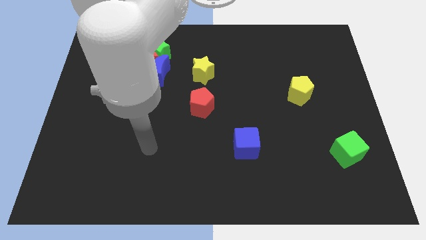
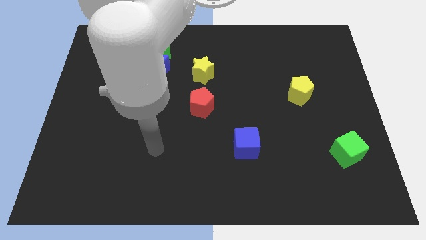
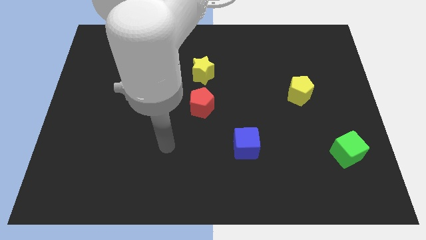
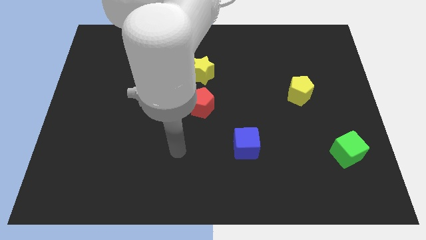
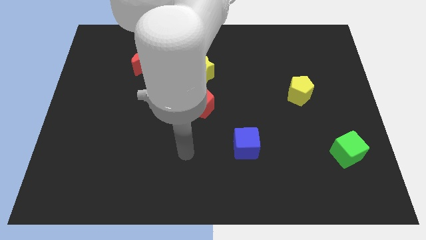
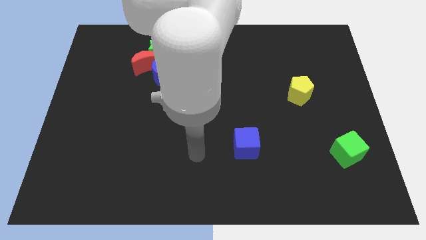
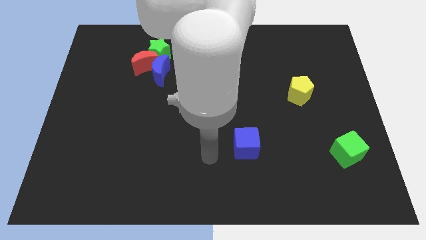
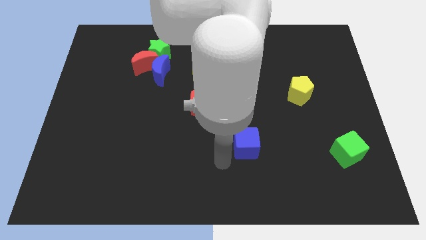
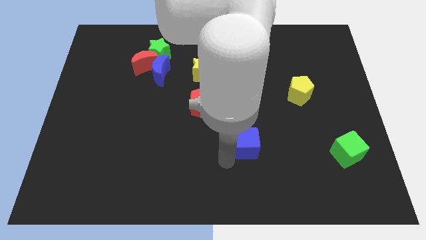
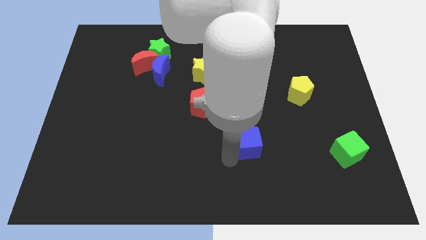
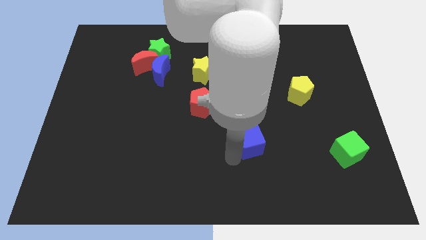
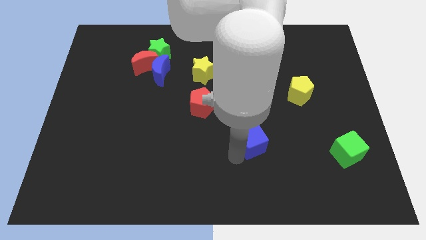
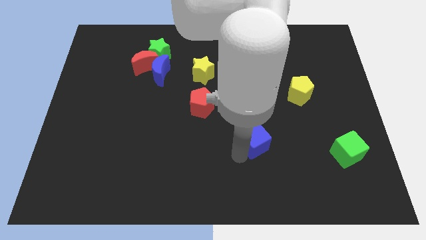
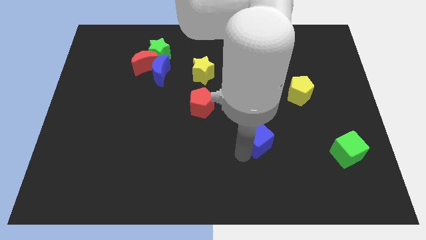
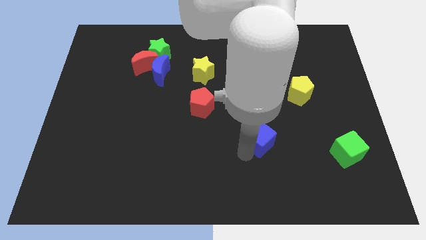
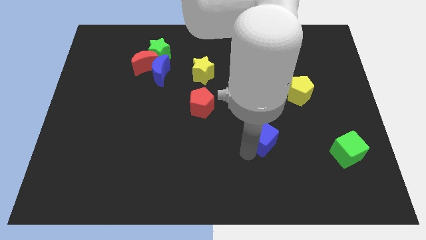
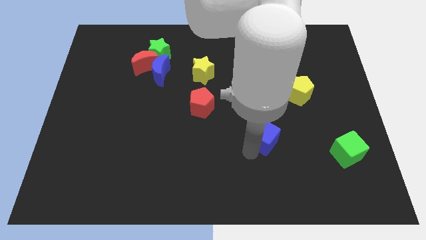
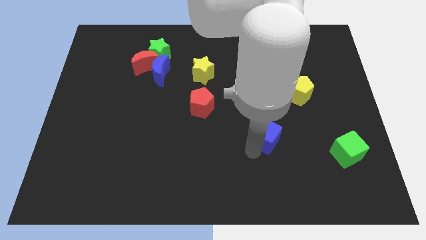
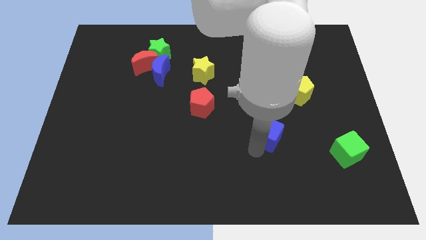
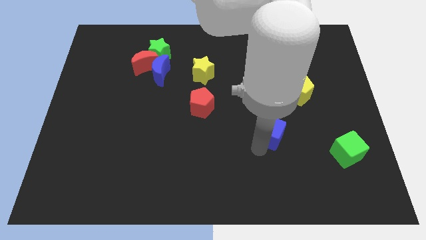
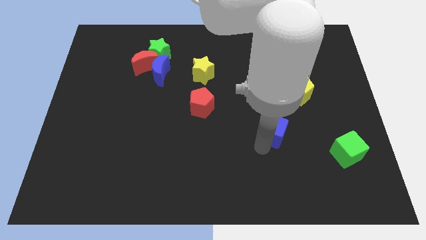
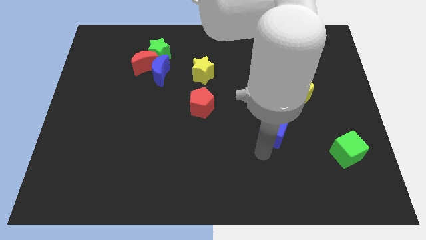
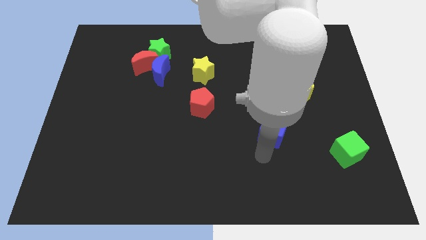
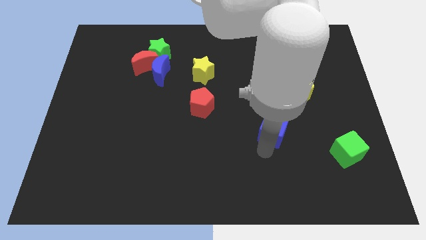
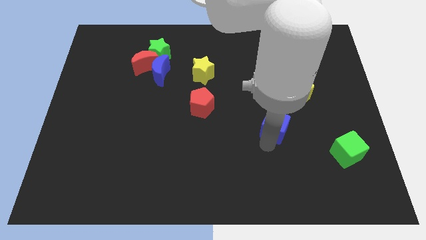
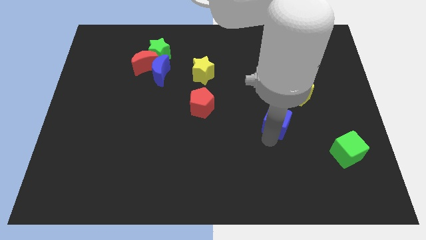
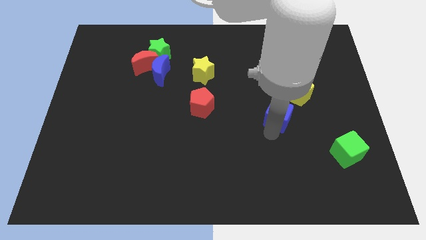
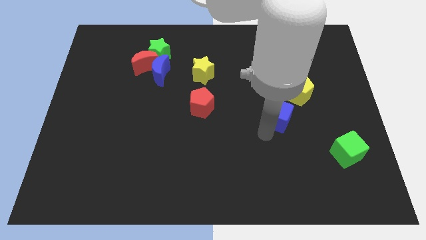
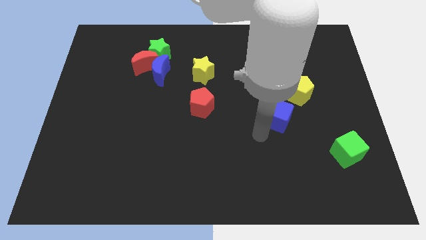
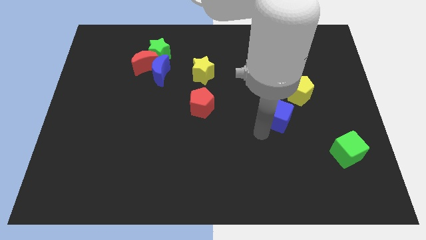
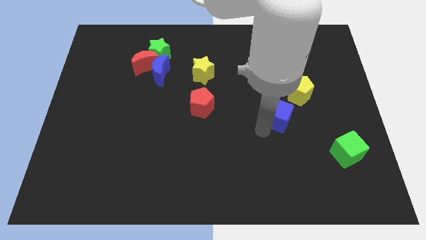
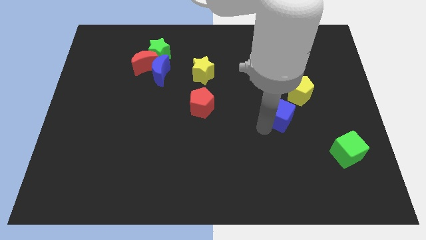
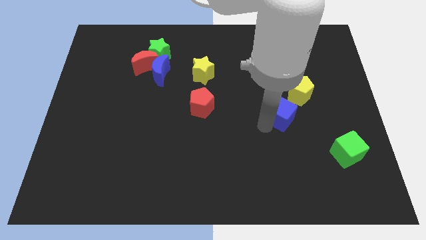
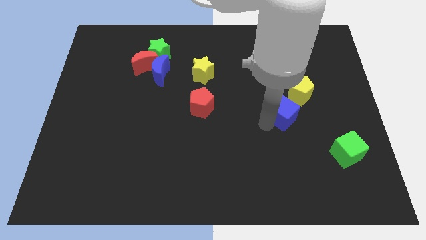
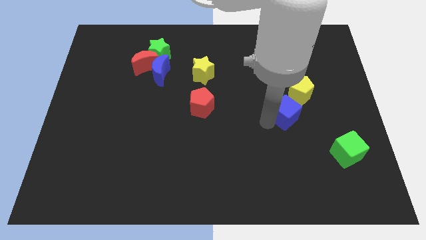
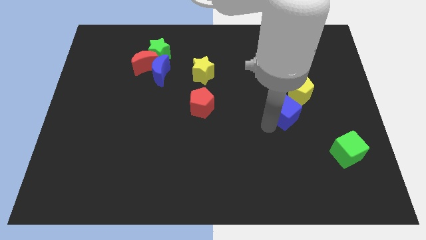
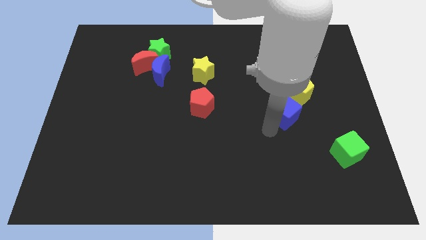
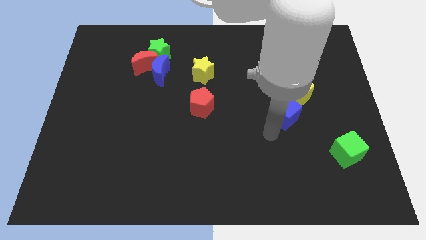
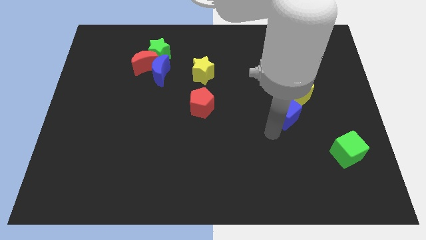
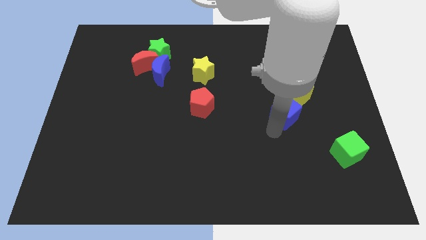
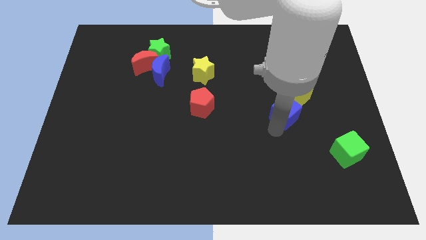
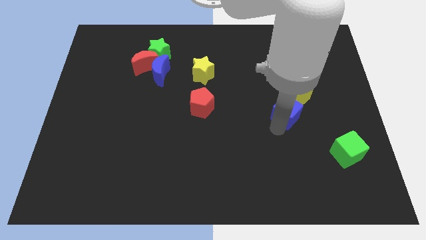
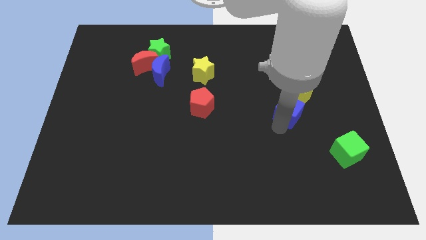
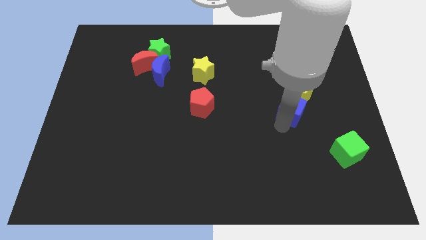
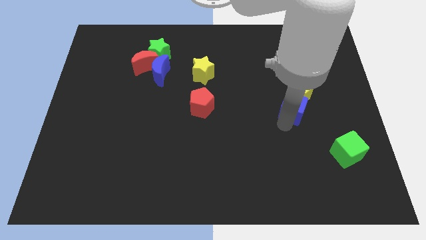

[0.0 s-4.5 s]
push the blue cube close to the yellow pentagon

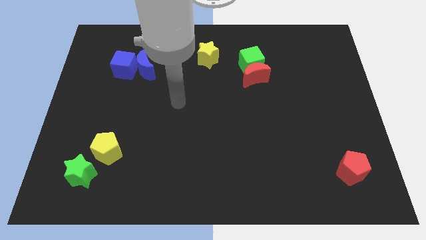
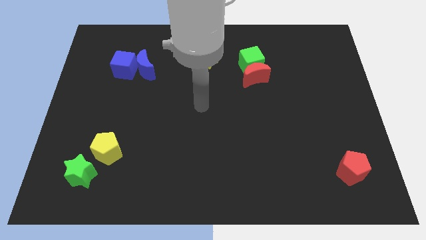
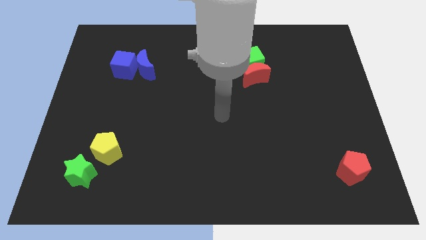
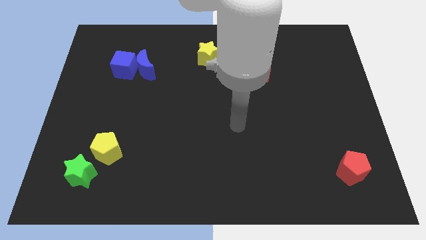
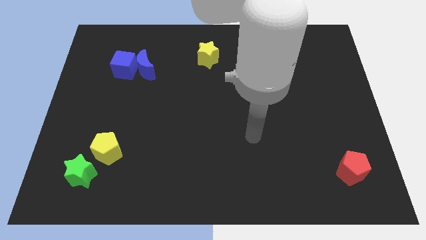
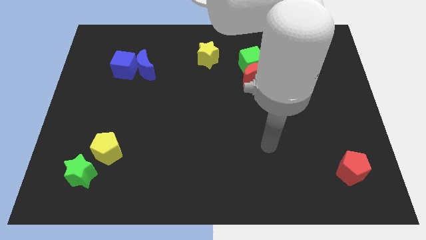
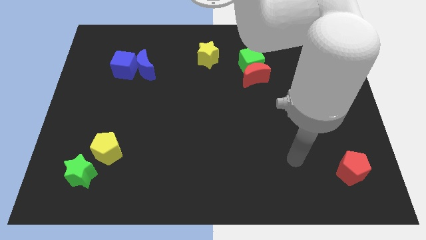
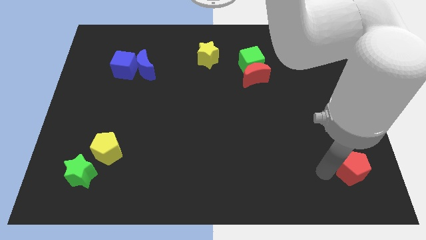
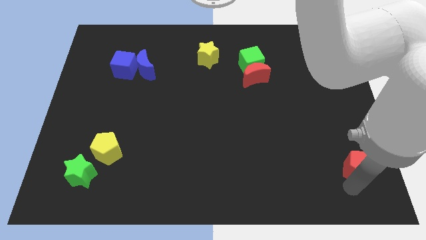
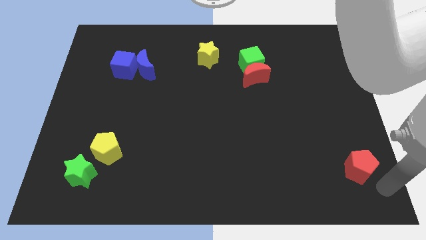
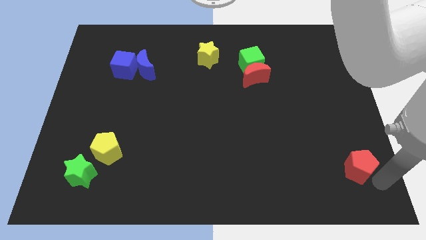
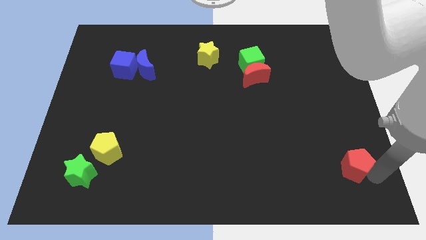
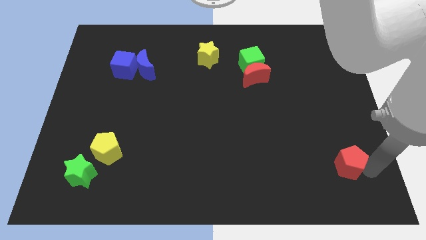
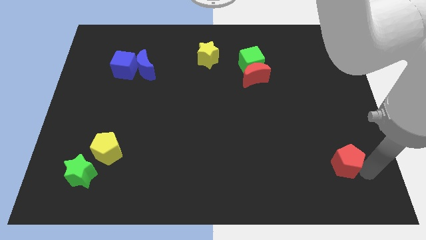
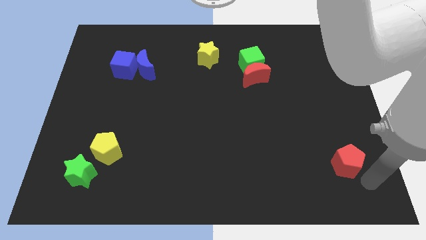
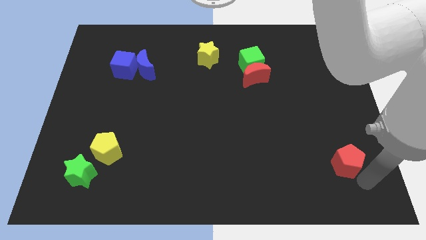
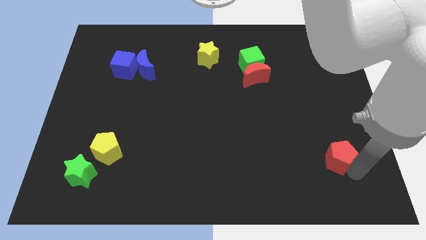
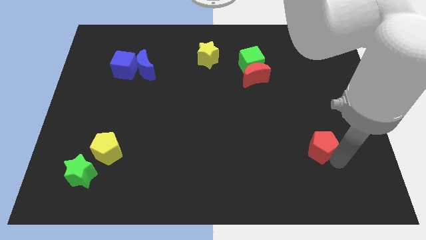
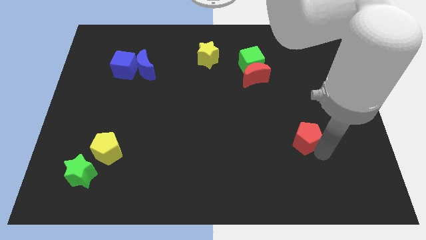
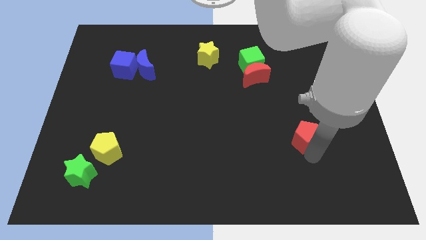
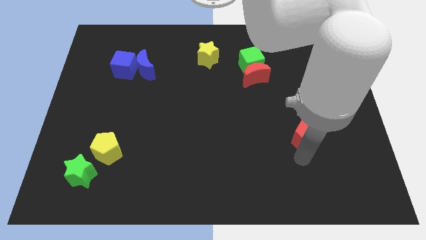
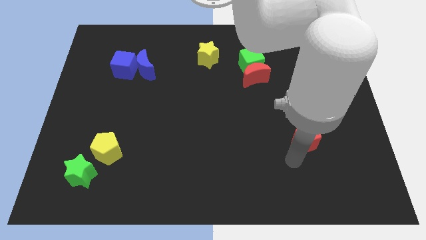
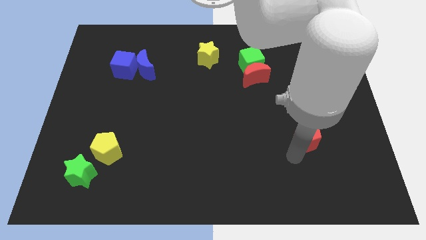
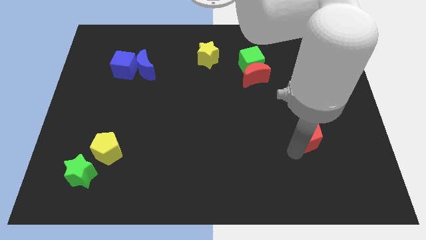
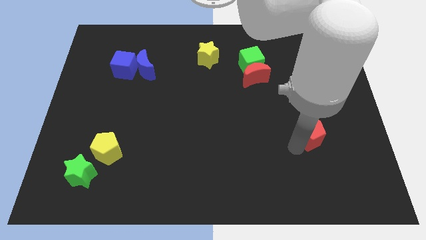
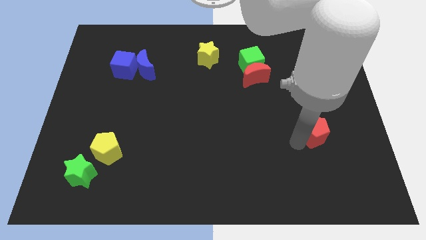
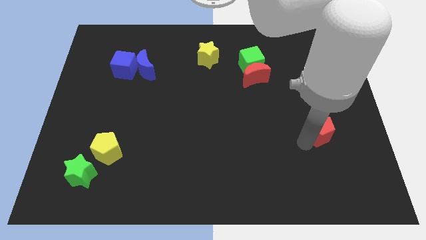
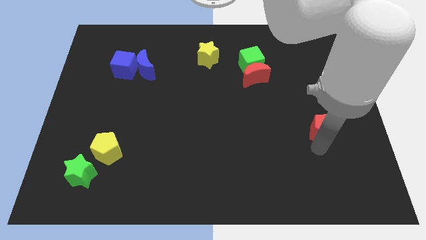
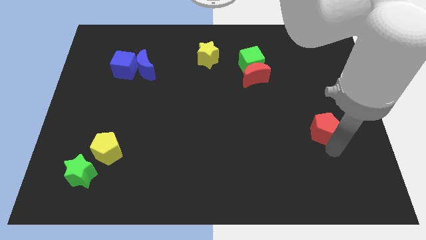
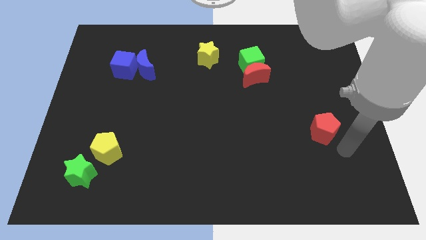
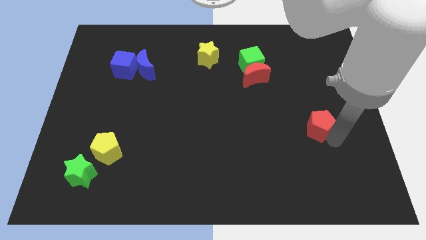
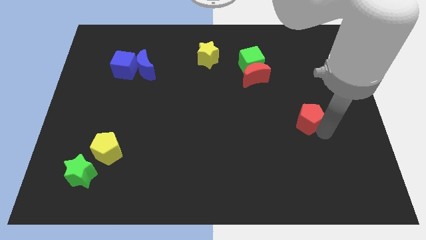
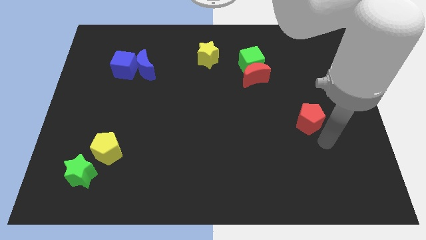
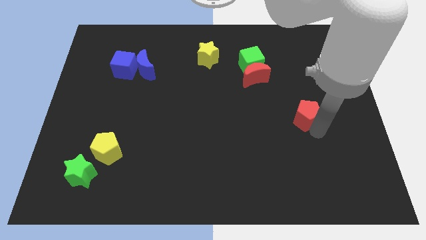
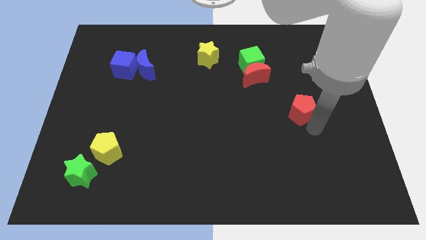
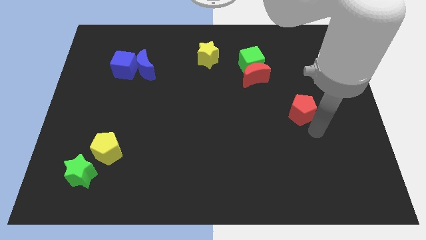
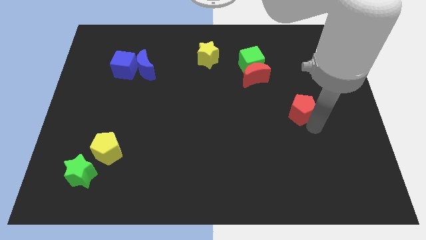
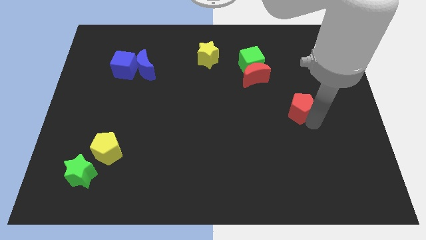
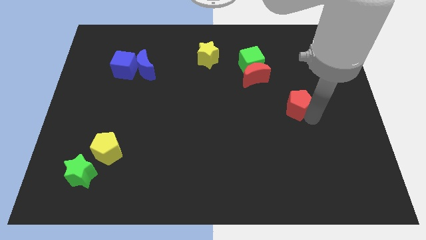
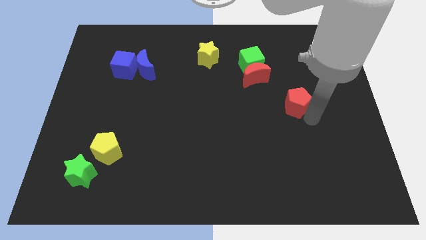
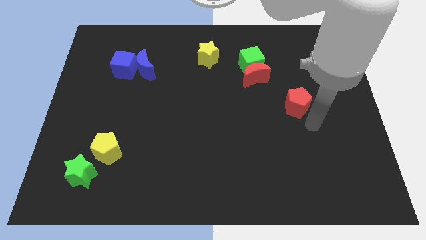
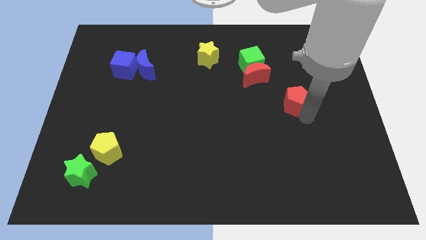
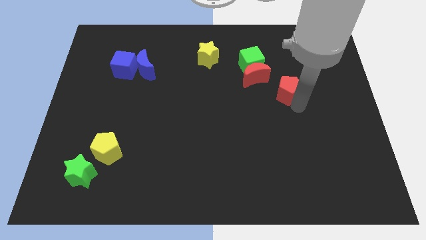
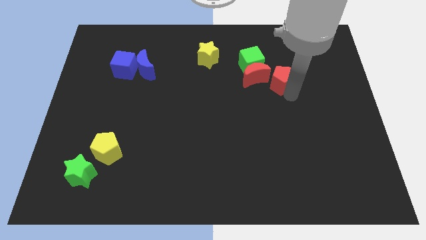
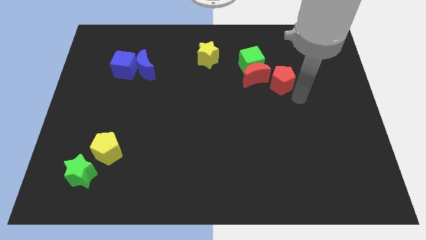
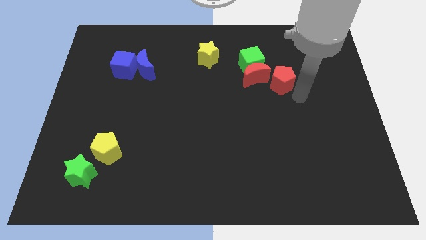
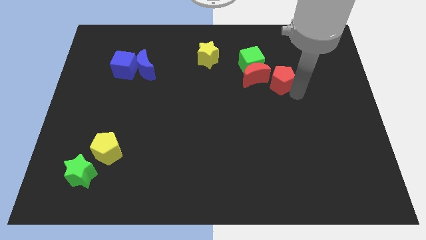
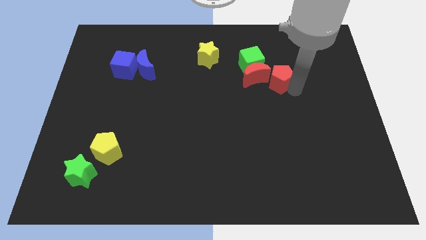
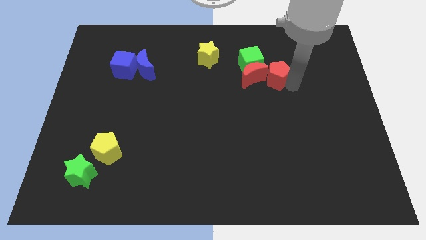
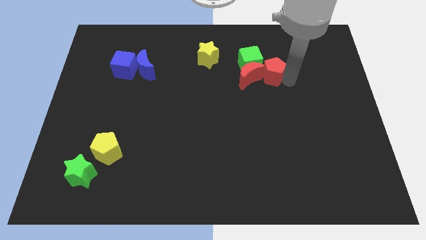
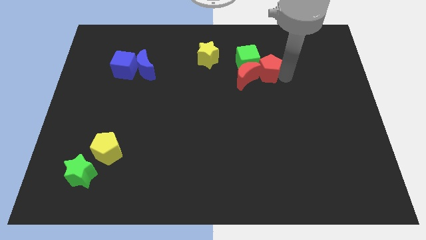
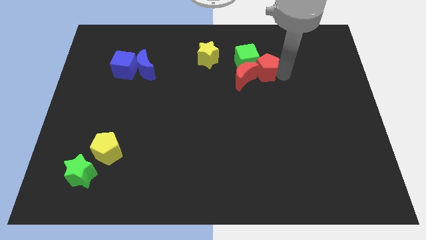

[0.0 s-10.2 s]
push the red pentagon next to the green cube
